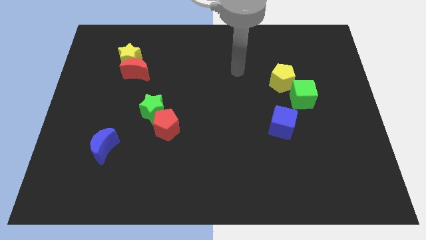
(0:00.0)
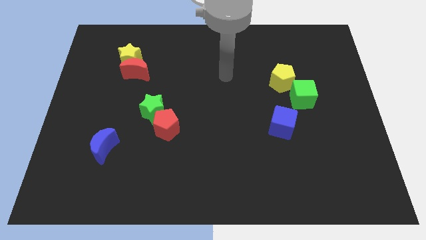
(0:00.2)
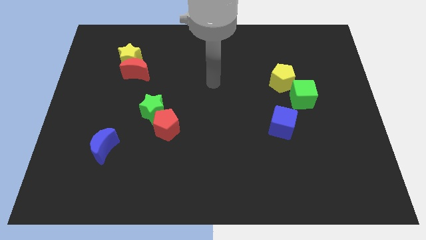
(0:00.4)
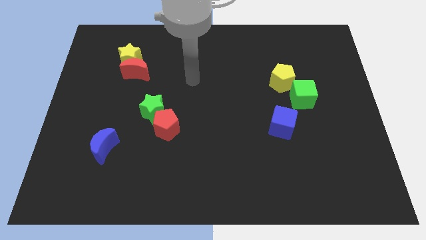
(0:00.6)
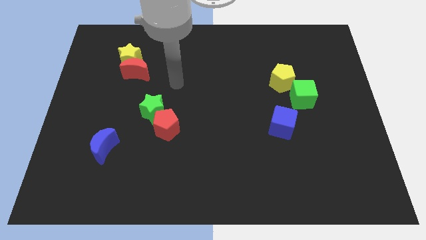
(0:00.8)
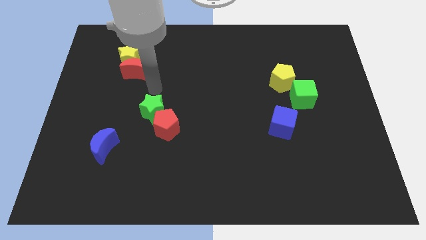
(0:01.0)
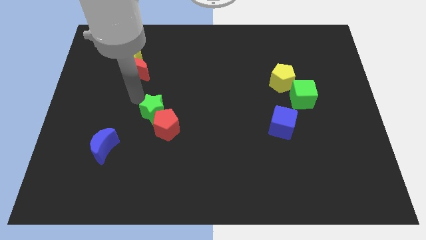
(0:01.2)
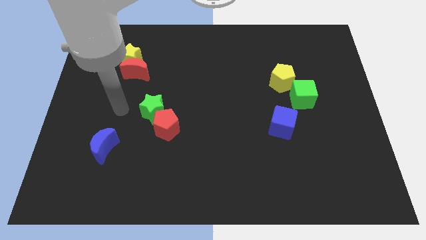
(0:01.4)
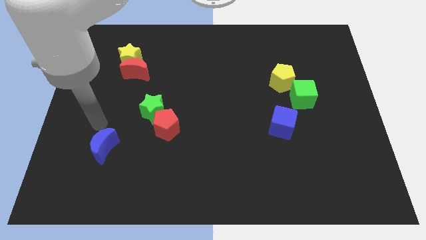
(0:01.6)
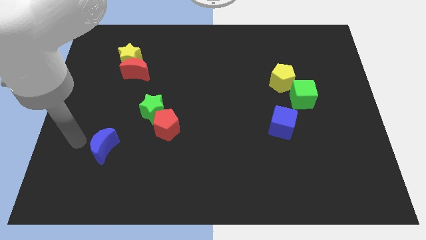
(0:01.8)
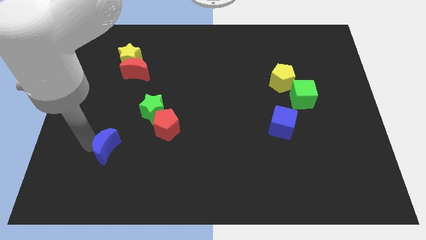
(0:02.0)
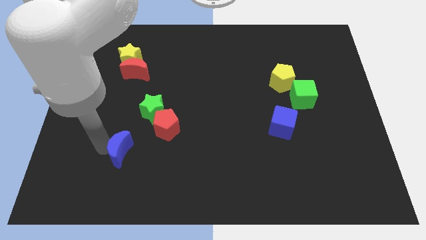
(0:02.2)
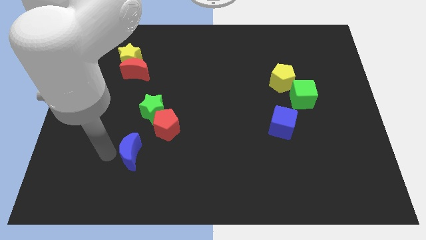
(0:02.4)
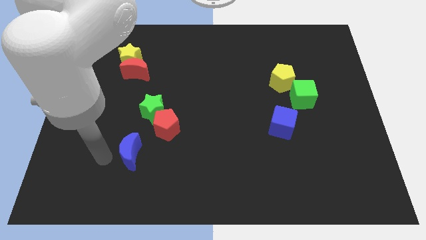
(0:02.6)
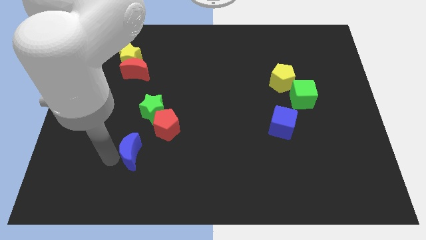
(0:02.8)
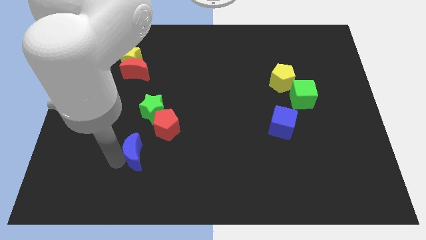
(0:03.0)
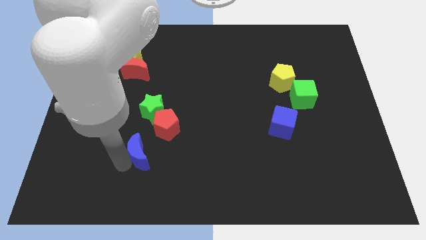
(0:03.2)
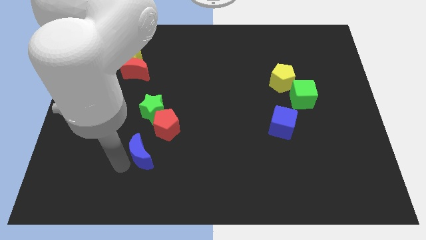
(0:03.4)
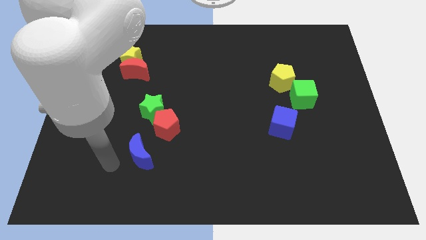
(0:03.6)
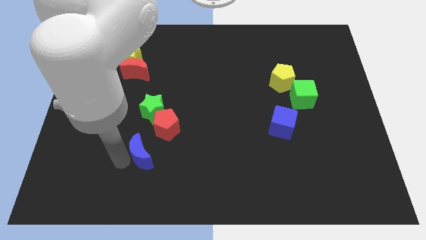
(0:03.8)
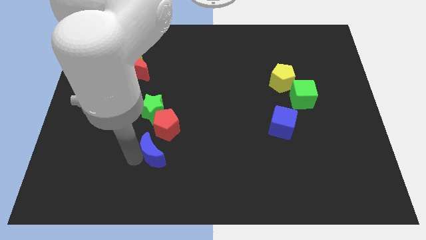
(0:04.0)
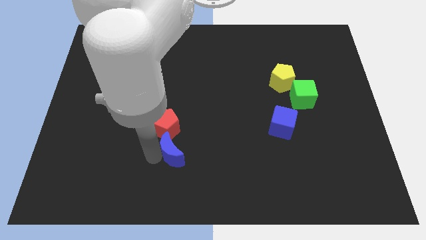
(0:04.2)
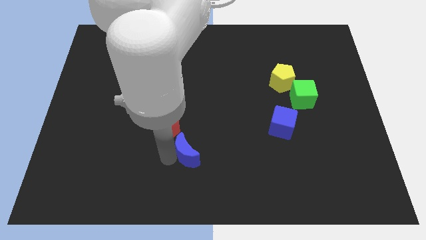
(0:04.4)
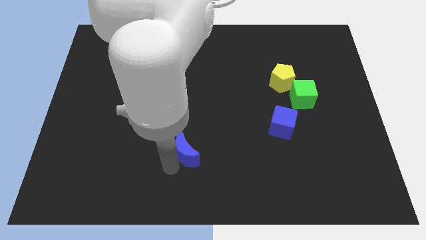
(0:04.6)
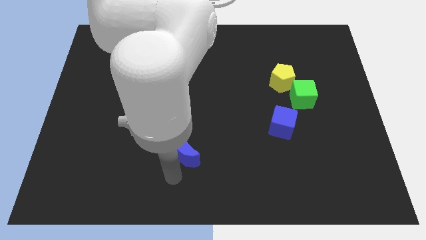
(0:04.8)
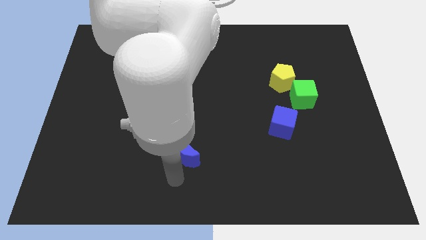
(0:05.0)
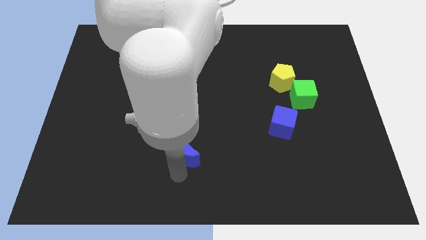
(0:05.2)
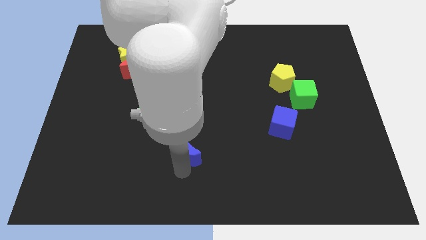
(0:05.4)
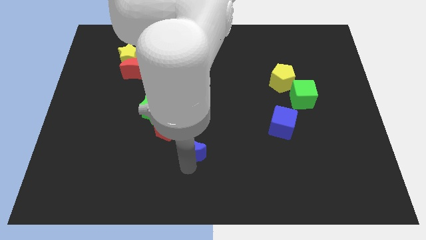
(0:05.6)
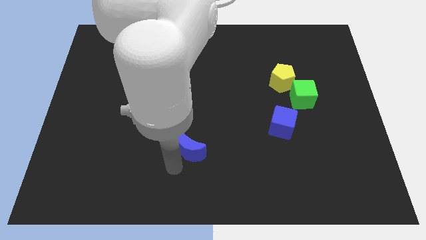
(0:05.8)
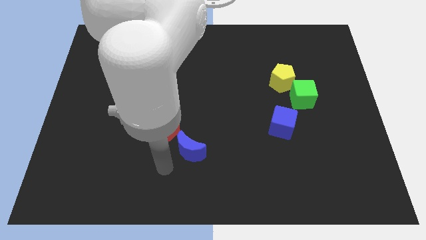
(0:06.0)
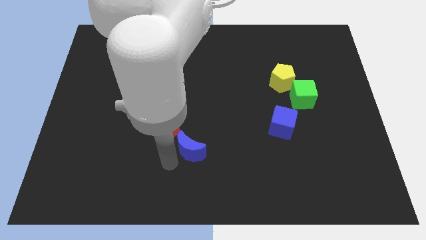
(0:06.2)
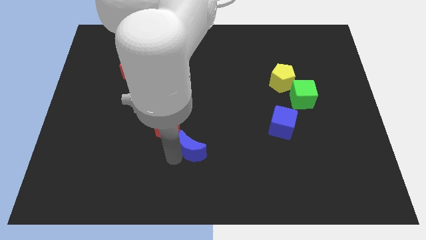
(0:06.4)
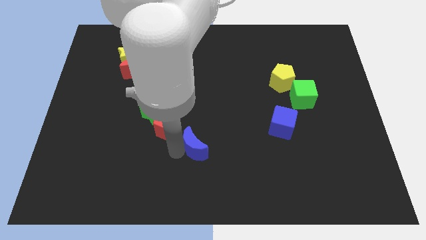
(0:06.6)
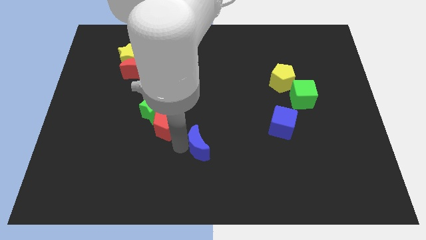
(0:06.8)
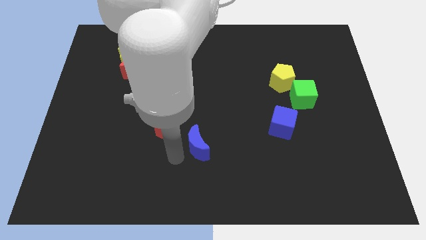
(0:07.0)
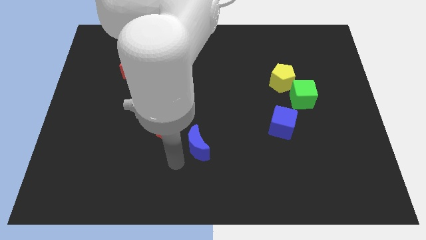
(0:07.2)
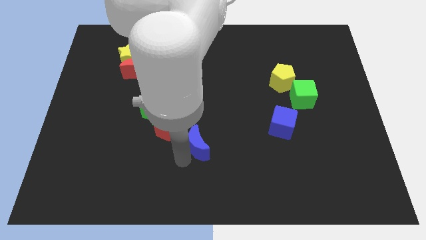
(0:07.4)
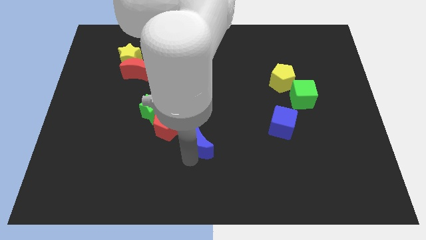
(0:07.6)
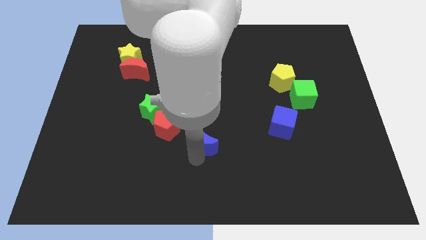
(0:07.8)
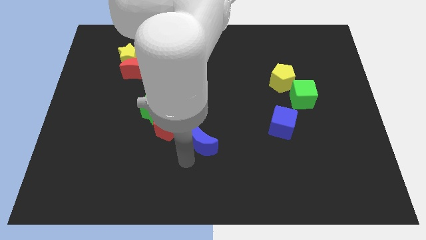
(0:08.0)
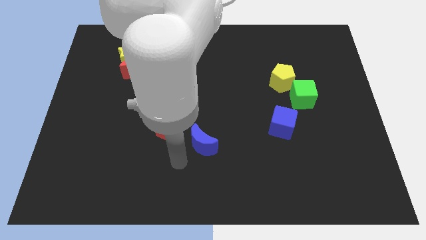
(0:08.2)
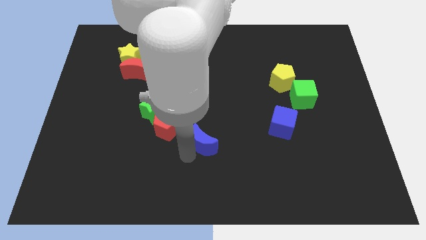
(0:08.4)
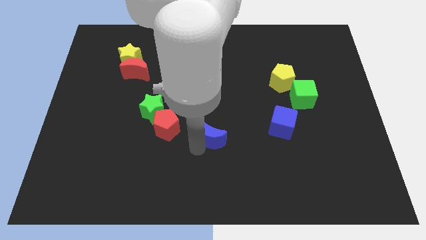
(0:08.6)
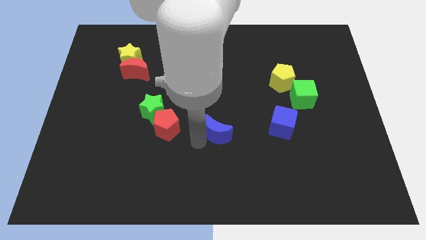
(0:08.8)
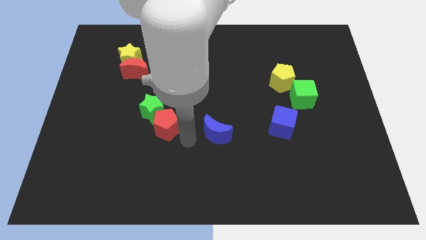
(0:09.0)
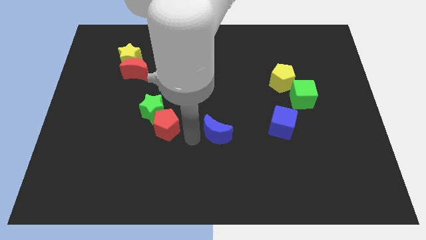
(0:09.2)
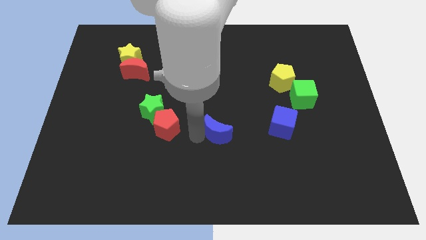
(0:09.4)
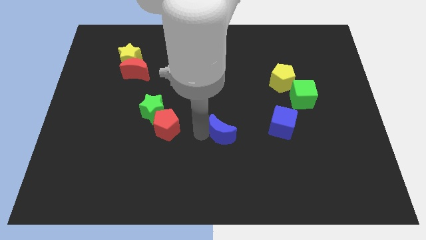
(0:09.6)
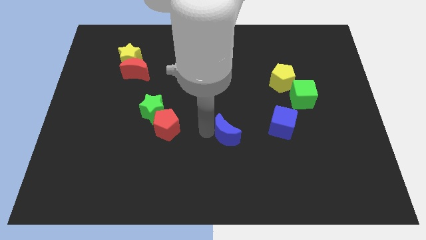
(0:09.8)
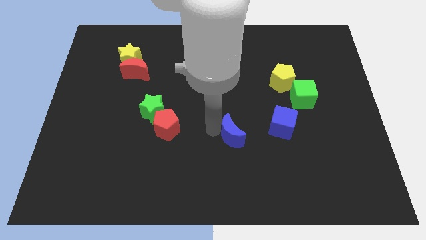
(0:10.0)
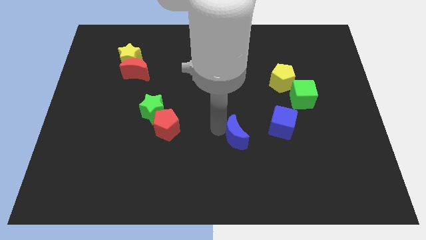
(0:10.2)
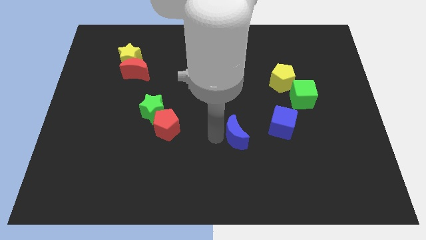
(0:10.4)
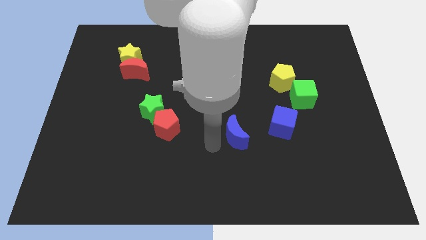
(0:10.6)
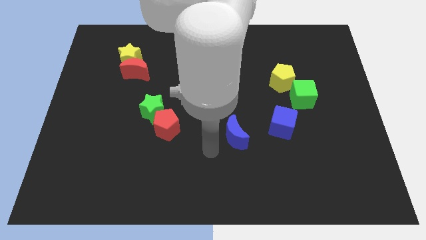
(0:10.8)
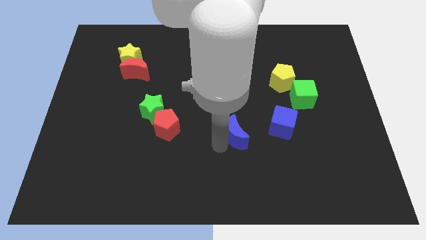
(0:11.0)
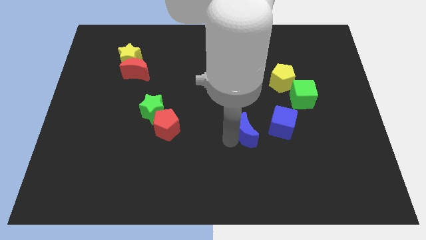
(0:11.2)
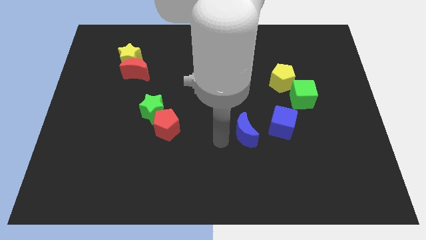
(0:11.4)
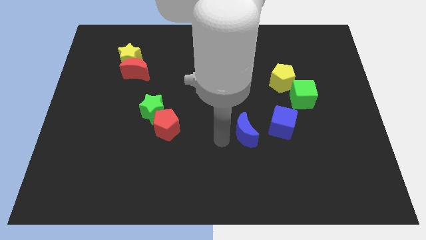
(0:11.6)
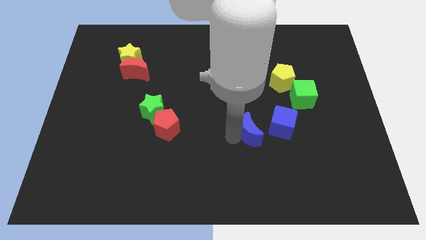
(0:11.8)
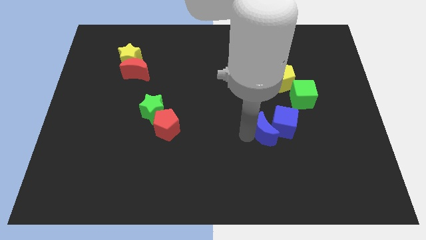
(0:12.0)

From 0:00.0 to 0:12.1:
push the blue moon close to the blue cube
